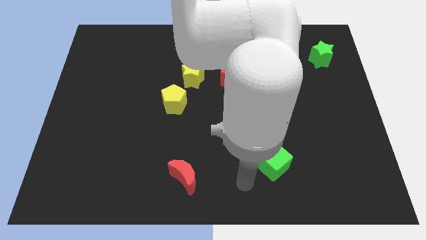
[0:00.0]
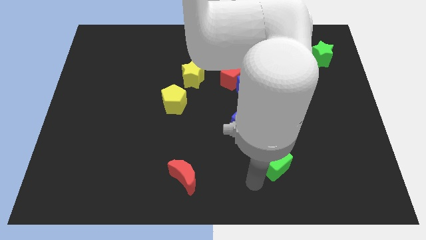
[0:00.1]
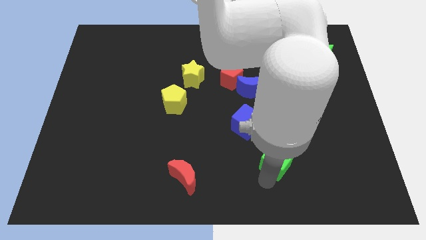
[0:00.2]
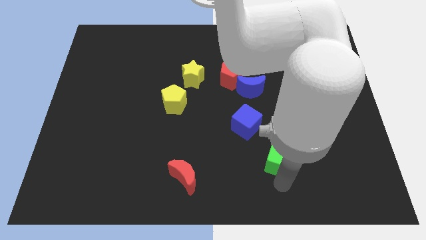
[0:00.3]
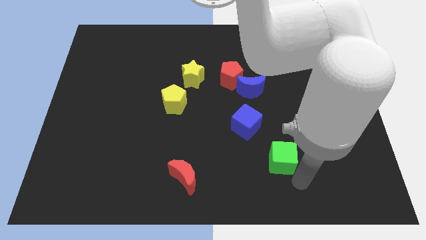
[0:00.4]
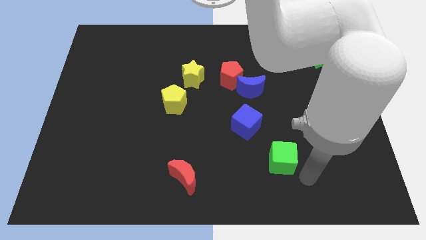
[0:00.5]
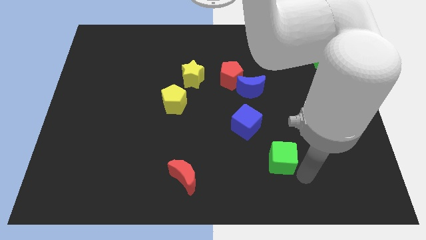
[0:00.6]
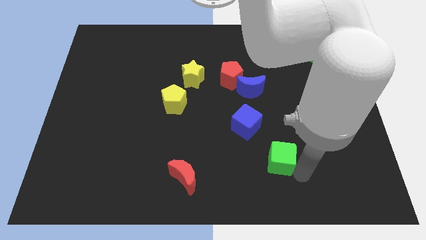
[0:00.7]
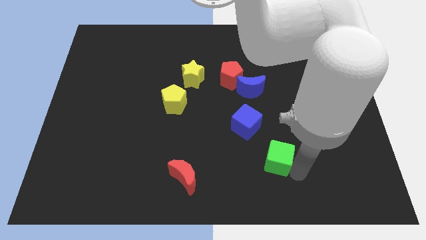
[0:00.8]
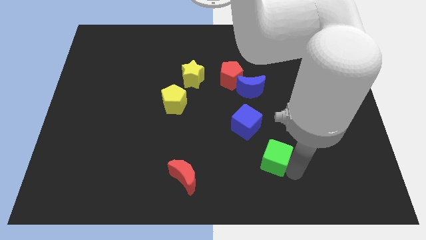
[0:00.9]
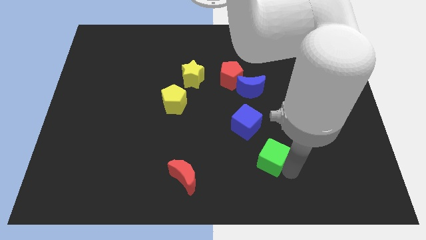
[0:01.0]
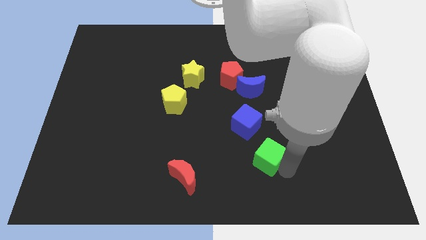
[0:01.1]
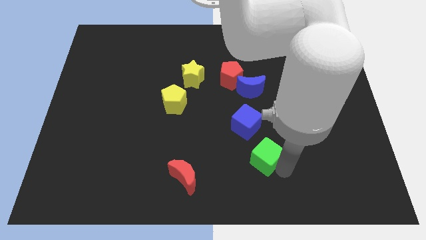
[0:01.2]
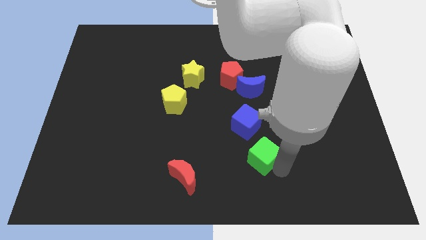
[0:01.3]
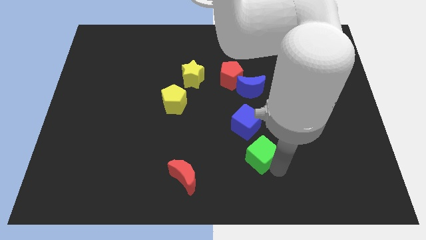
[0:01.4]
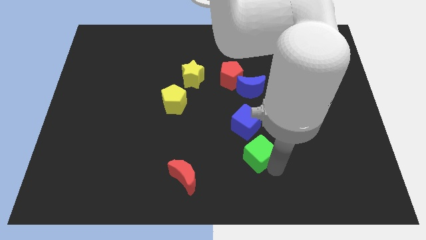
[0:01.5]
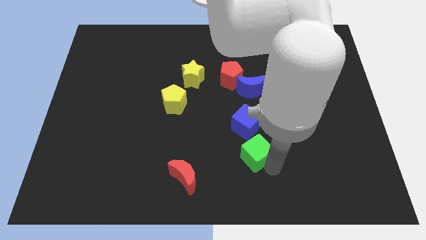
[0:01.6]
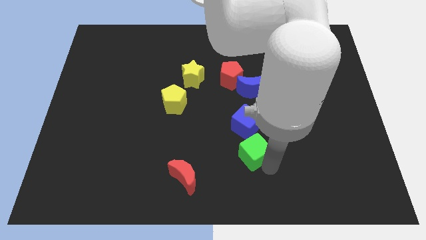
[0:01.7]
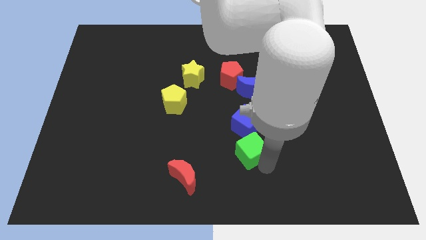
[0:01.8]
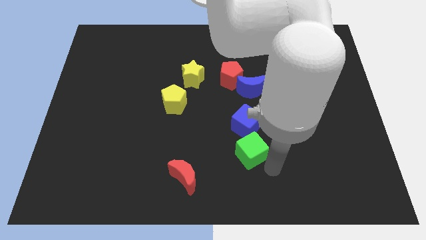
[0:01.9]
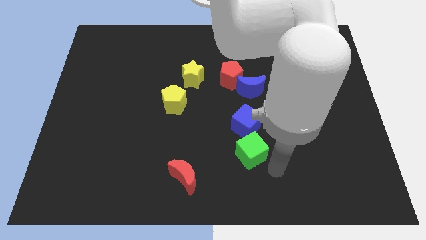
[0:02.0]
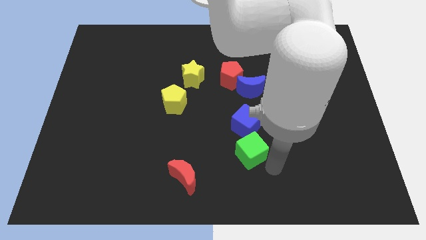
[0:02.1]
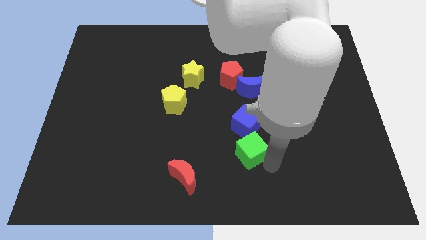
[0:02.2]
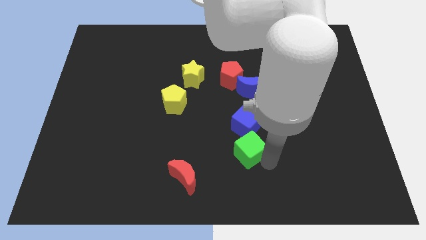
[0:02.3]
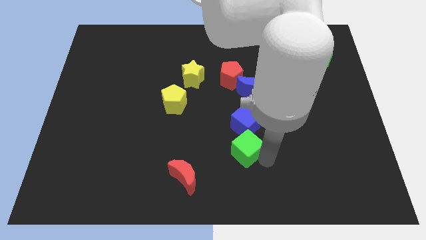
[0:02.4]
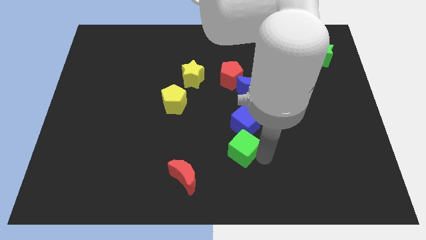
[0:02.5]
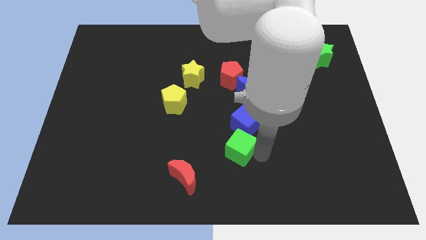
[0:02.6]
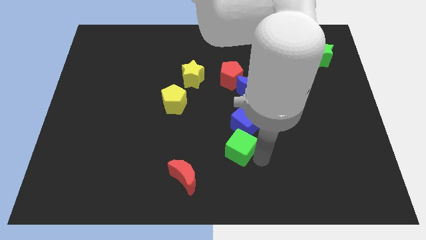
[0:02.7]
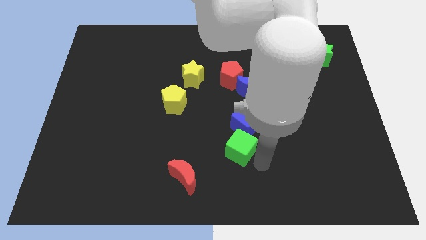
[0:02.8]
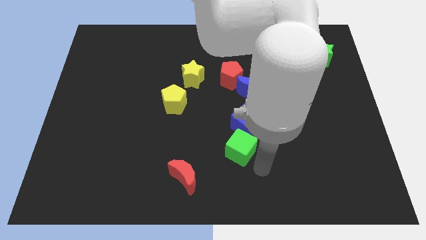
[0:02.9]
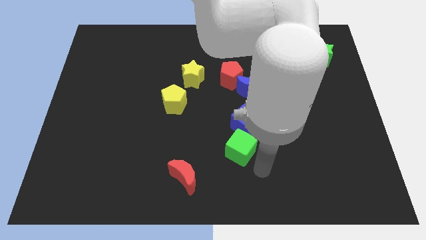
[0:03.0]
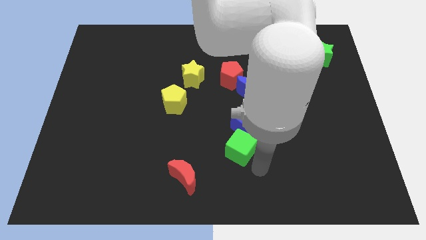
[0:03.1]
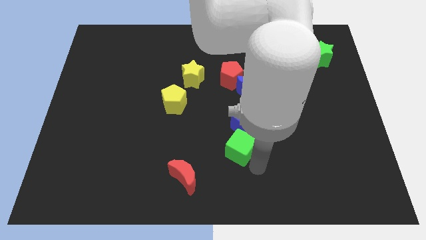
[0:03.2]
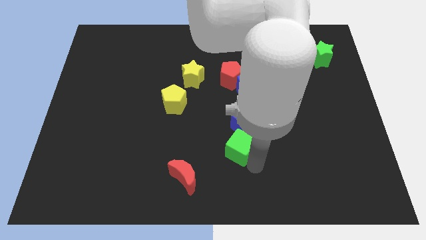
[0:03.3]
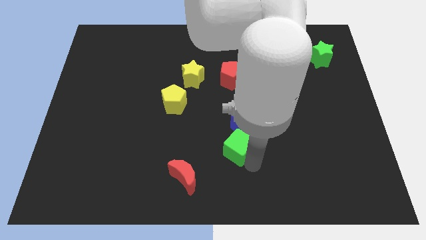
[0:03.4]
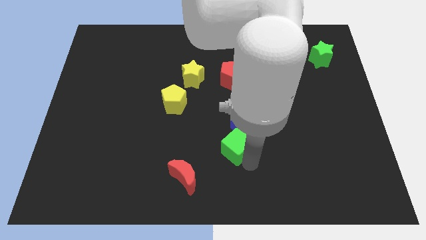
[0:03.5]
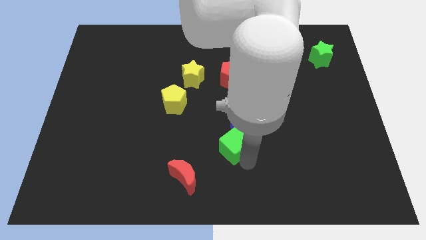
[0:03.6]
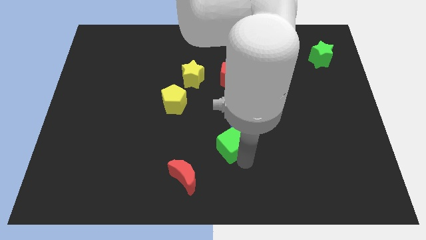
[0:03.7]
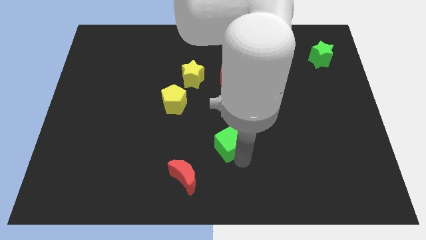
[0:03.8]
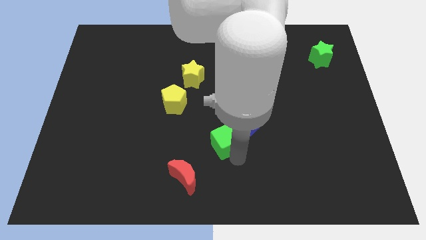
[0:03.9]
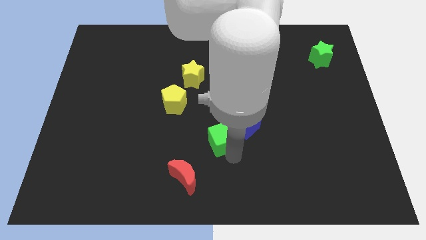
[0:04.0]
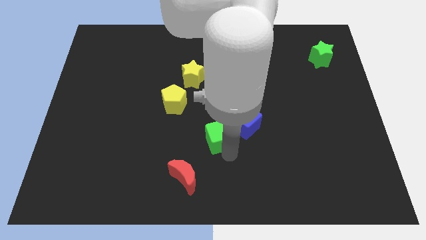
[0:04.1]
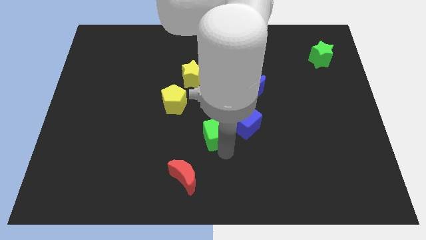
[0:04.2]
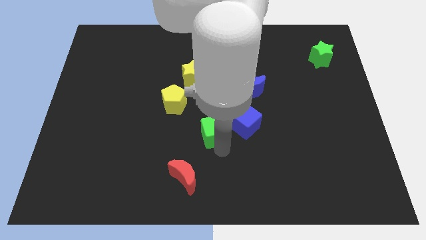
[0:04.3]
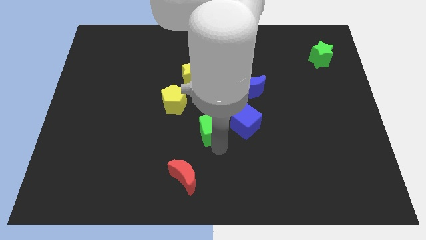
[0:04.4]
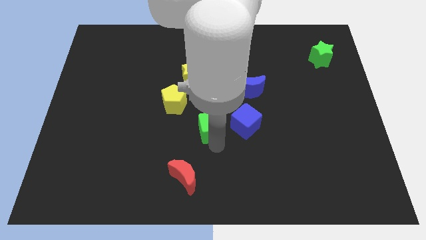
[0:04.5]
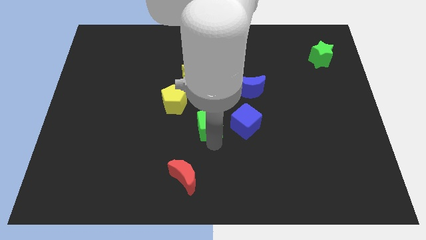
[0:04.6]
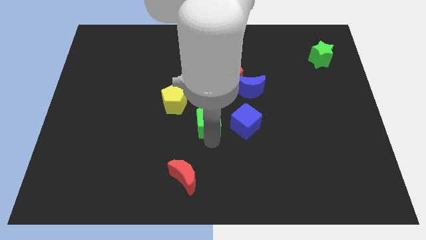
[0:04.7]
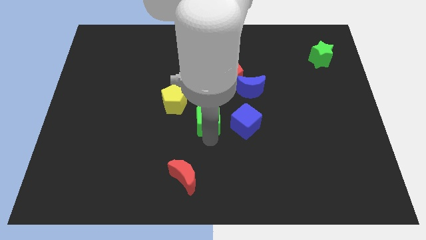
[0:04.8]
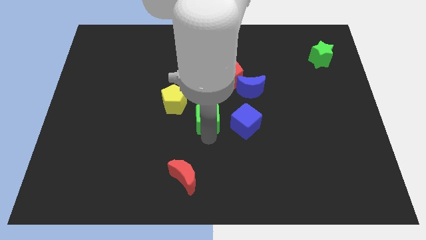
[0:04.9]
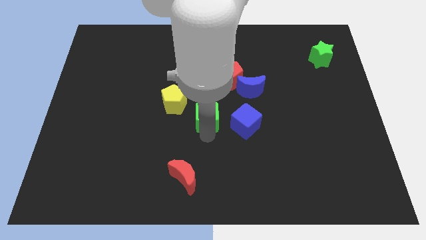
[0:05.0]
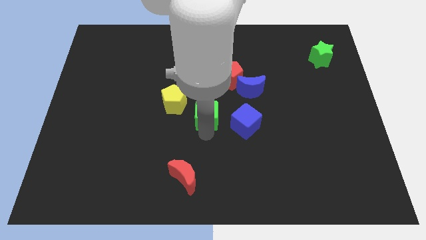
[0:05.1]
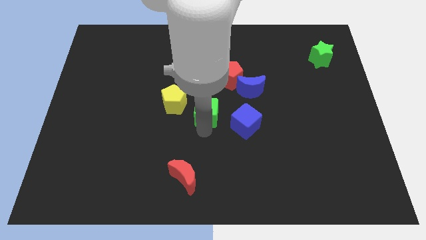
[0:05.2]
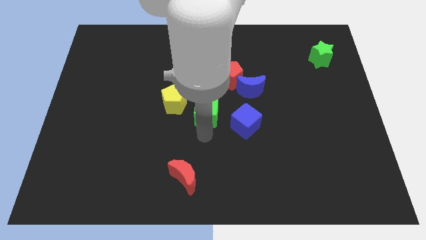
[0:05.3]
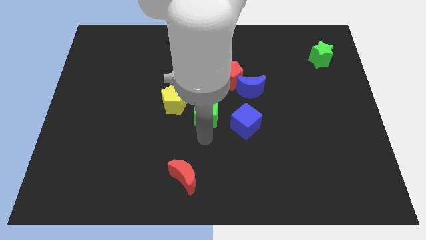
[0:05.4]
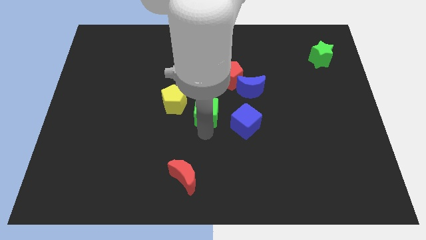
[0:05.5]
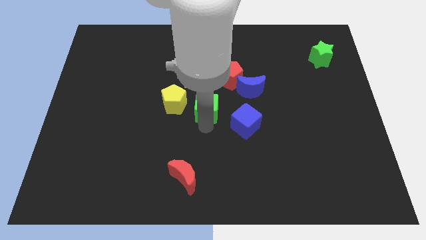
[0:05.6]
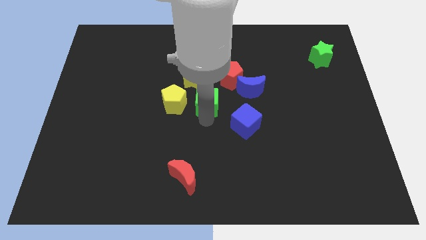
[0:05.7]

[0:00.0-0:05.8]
put the green cube left of the blue moon

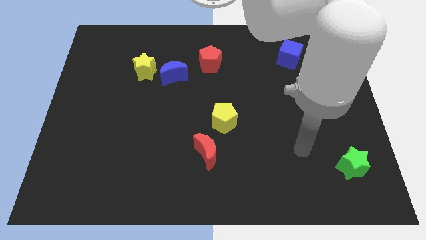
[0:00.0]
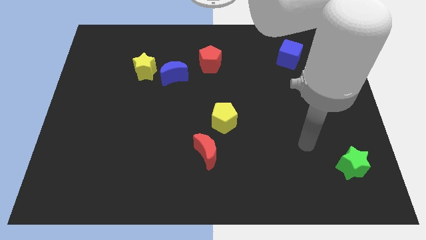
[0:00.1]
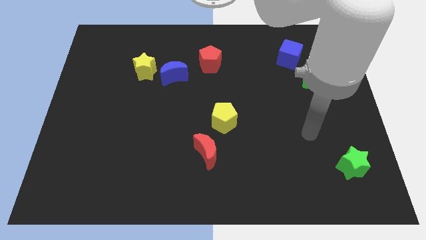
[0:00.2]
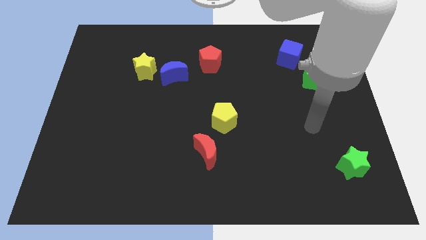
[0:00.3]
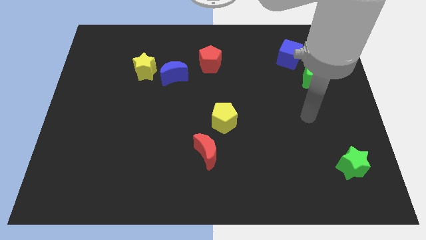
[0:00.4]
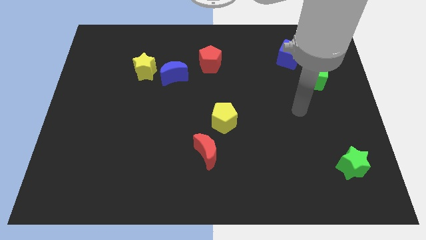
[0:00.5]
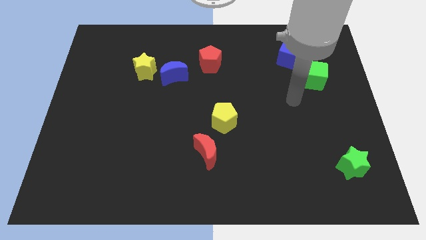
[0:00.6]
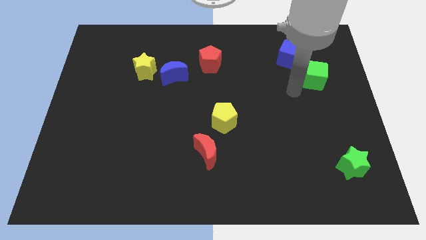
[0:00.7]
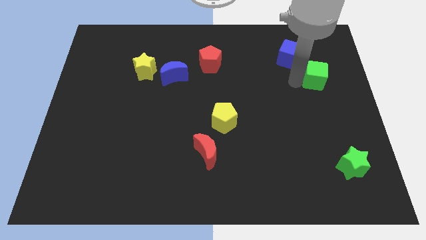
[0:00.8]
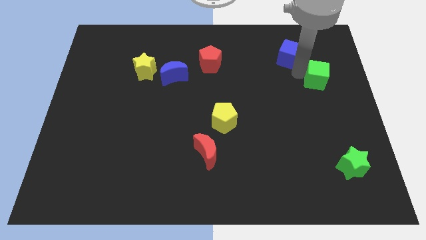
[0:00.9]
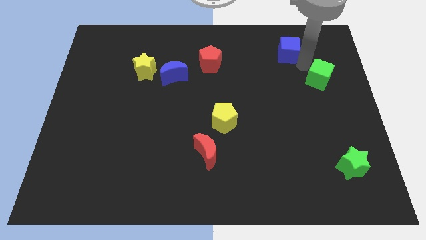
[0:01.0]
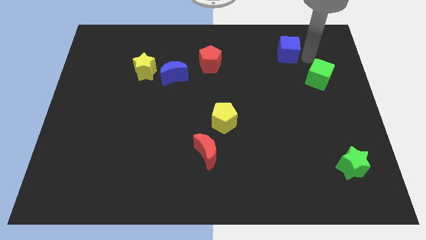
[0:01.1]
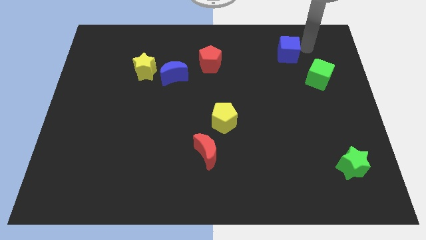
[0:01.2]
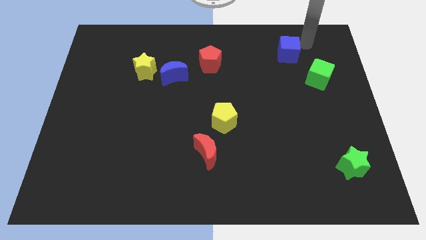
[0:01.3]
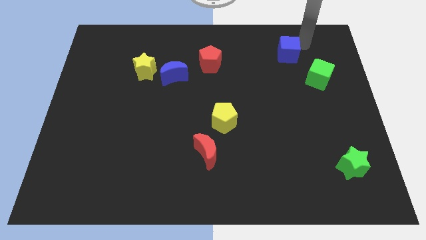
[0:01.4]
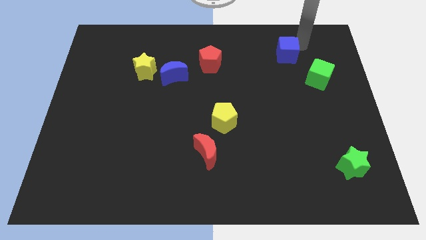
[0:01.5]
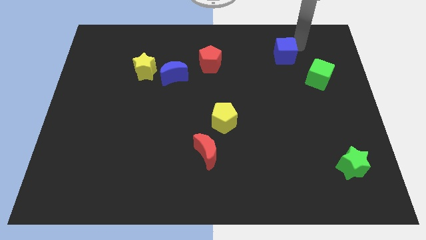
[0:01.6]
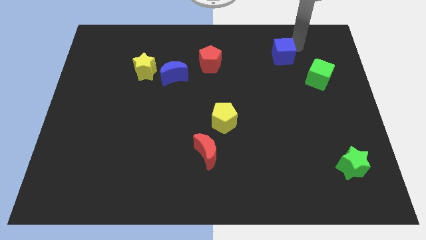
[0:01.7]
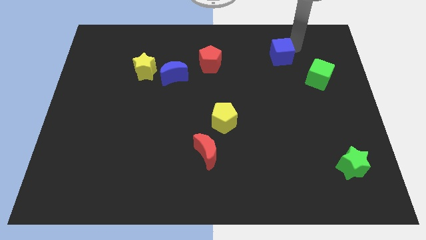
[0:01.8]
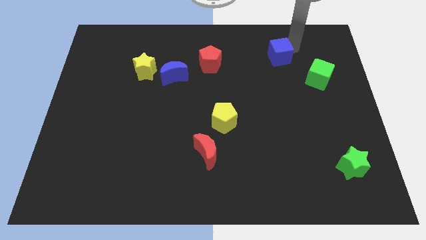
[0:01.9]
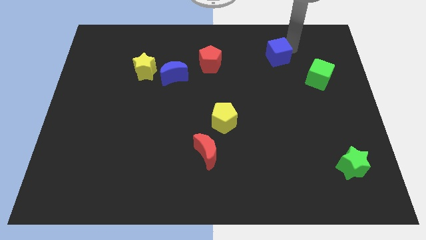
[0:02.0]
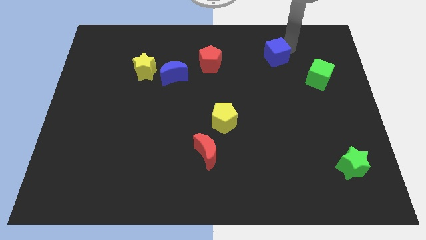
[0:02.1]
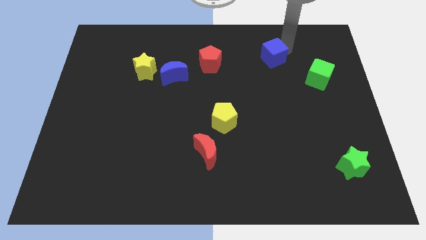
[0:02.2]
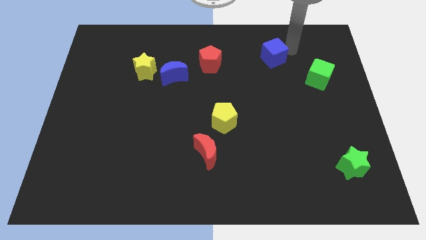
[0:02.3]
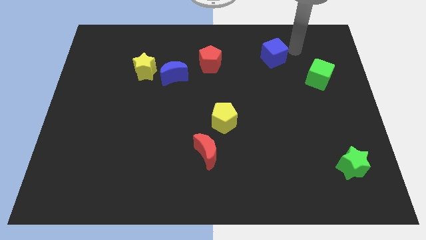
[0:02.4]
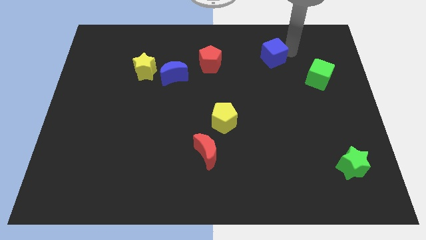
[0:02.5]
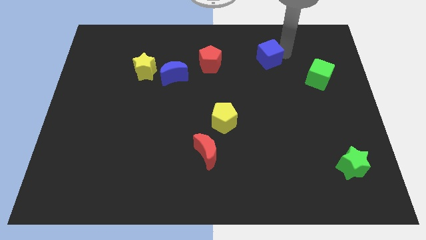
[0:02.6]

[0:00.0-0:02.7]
move the blue cube just right of the red pentagon
